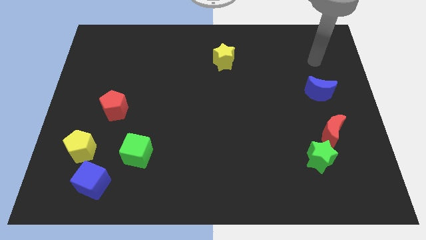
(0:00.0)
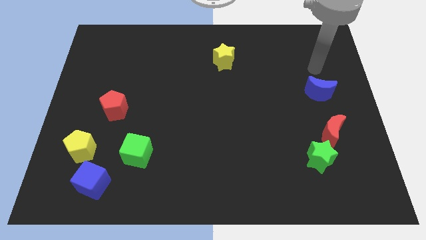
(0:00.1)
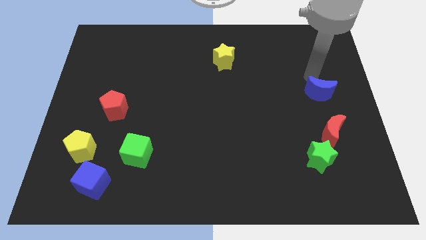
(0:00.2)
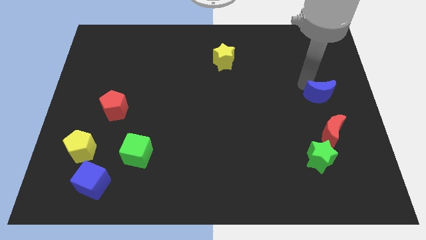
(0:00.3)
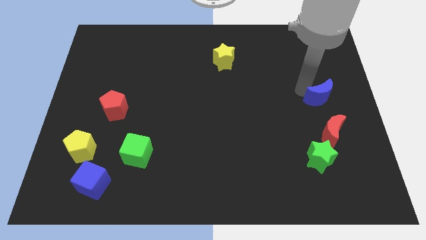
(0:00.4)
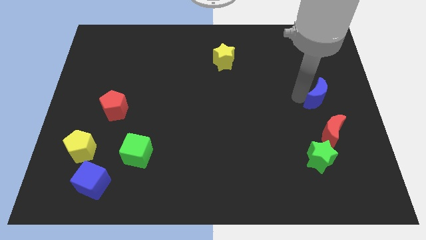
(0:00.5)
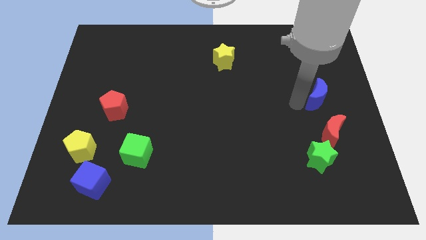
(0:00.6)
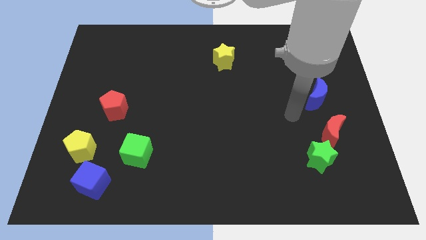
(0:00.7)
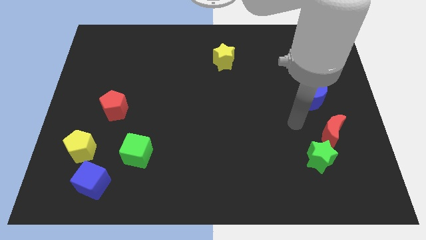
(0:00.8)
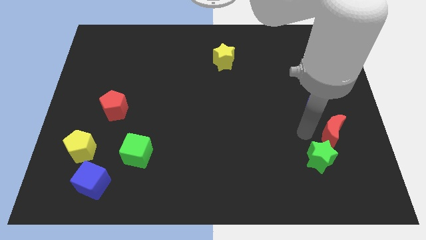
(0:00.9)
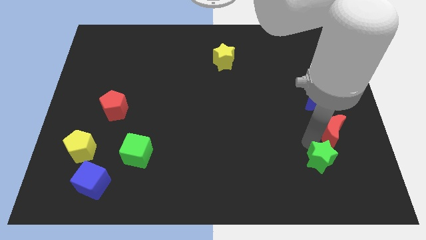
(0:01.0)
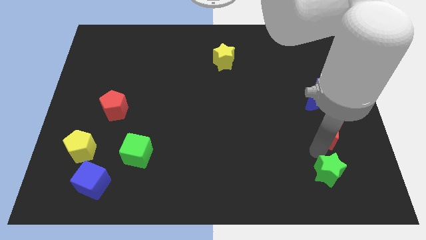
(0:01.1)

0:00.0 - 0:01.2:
move the red moon away from the green star

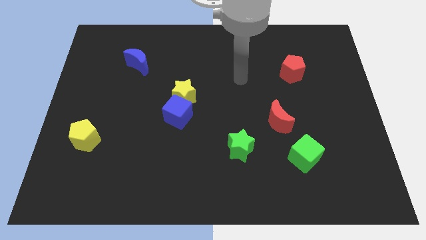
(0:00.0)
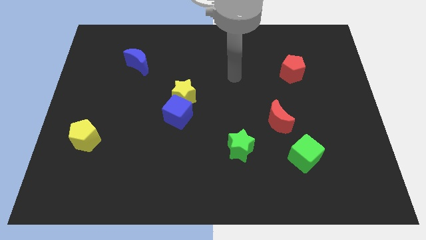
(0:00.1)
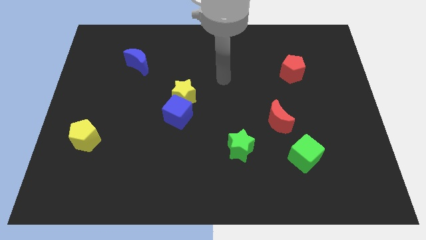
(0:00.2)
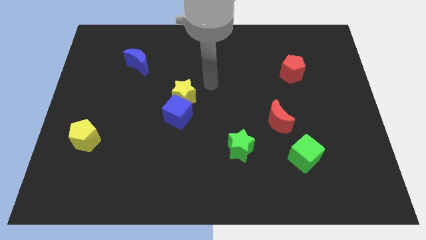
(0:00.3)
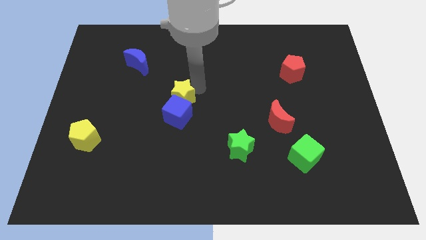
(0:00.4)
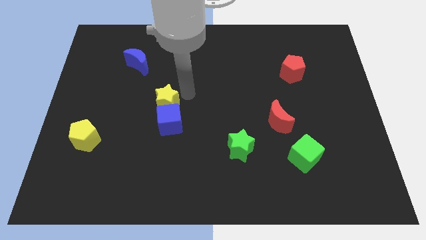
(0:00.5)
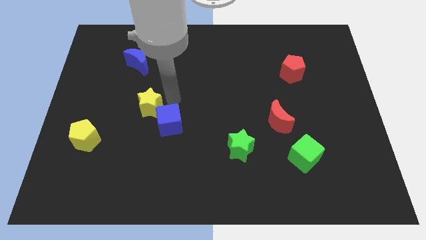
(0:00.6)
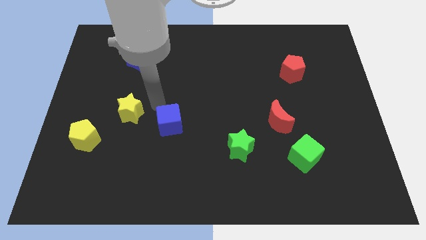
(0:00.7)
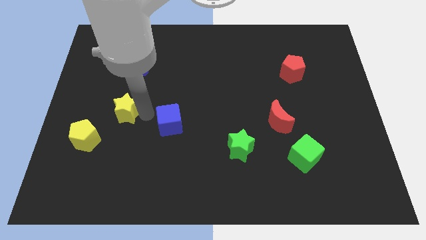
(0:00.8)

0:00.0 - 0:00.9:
move the blue cube away from the yellow star

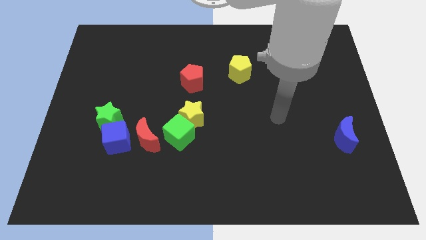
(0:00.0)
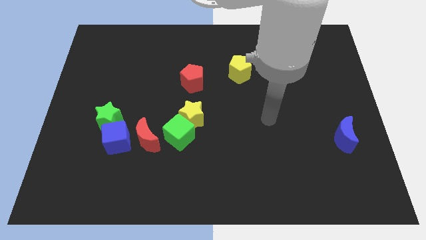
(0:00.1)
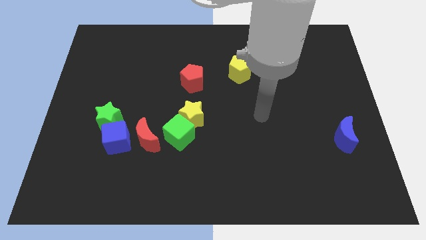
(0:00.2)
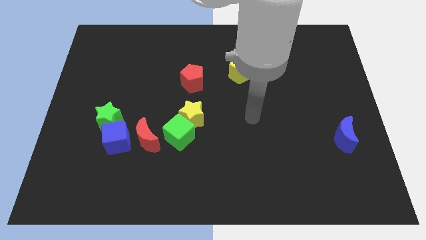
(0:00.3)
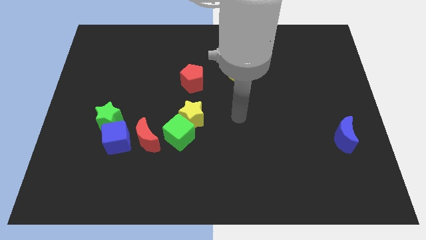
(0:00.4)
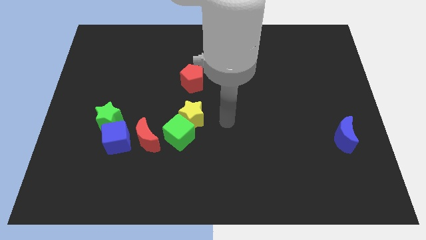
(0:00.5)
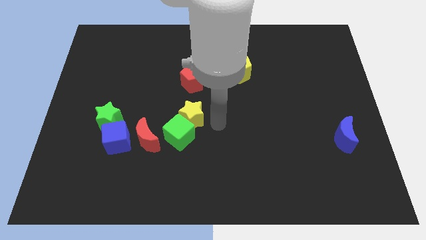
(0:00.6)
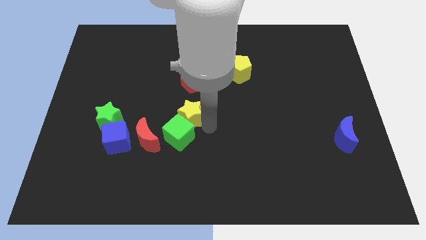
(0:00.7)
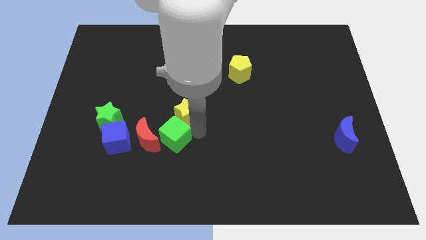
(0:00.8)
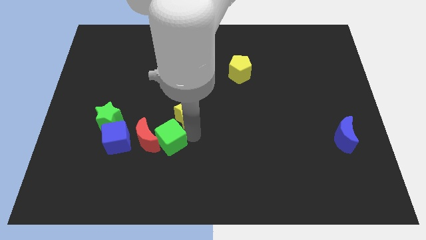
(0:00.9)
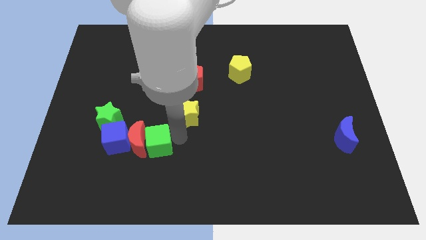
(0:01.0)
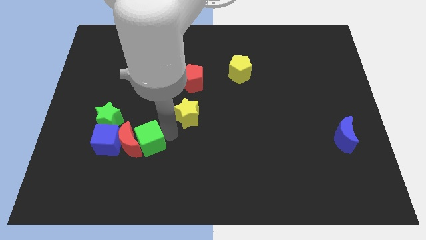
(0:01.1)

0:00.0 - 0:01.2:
pull the yellow star apart from the green cube

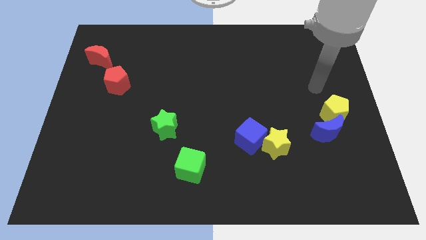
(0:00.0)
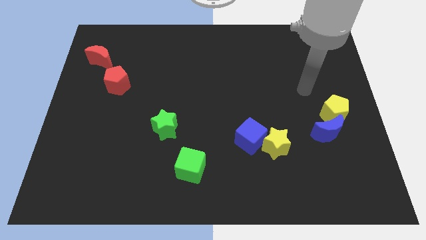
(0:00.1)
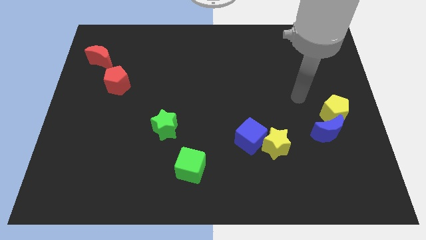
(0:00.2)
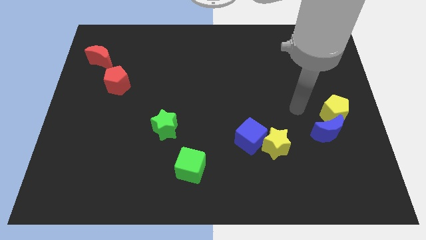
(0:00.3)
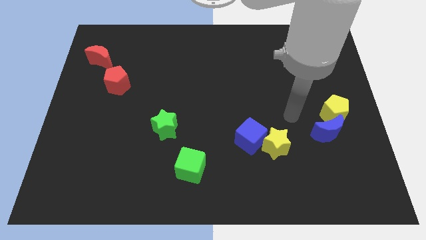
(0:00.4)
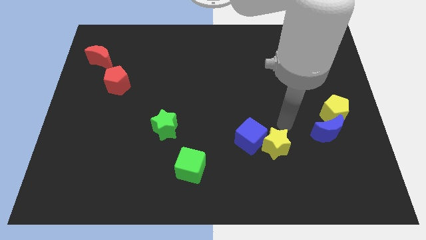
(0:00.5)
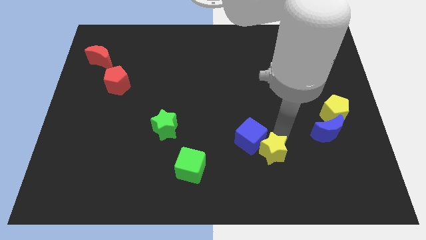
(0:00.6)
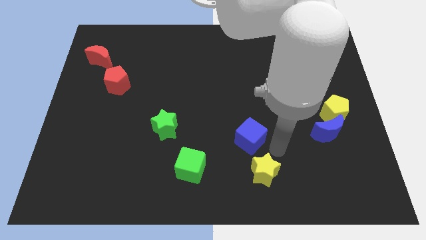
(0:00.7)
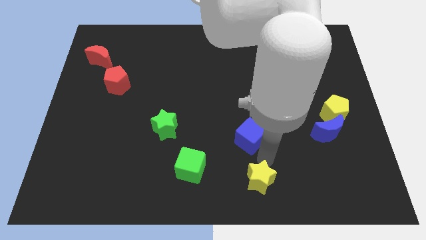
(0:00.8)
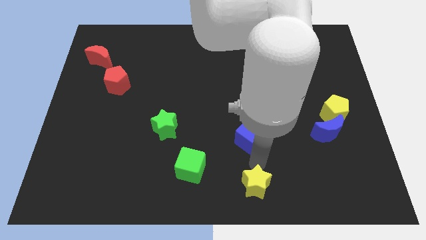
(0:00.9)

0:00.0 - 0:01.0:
separate the blue cube from the yellow star

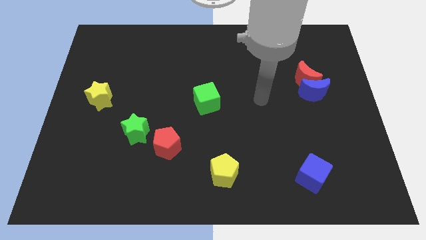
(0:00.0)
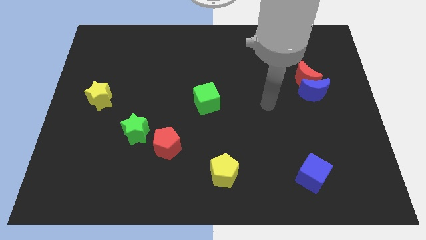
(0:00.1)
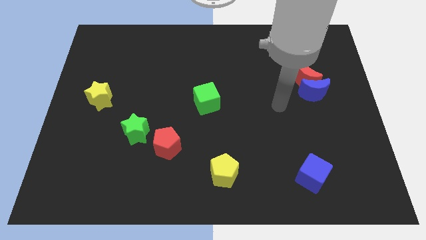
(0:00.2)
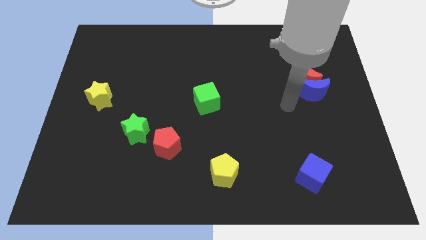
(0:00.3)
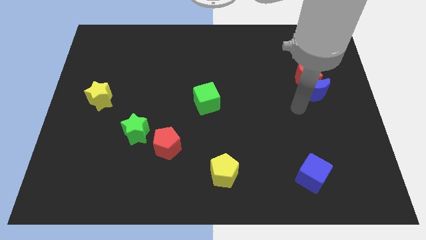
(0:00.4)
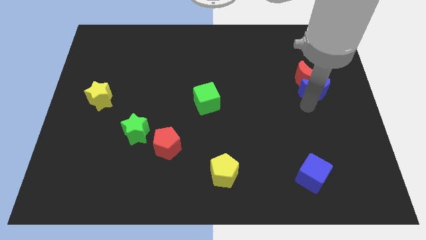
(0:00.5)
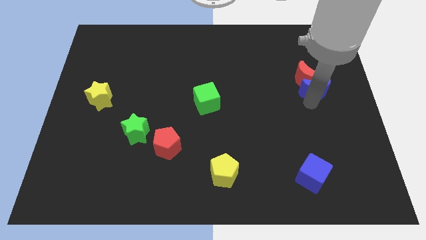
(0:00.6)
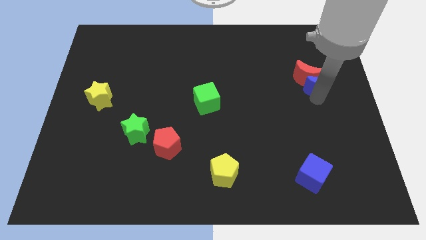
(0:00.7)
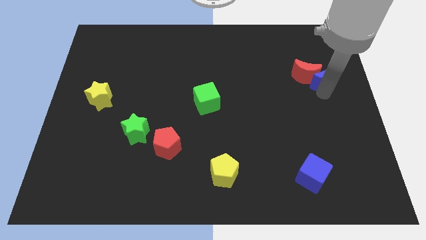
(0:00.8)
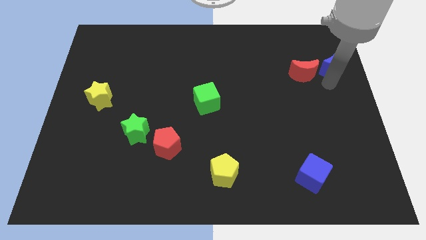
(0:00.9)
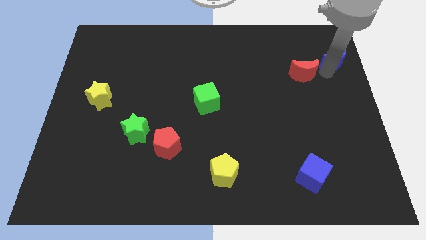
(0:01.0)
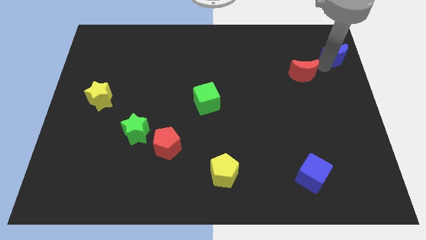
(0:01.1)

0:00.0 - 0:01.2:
pull the red moon apart from the blue moon

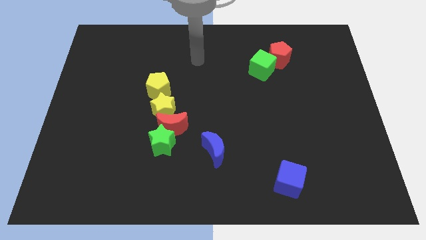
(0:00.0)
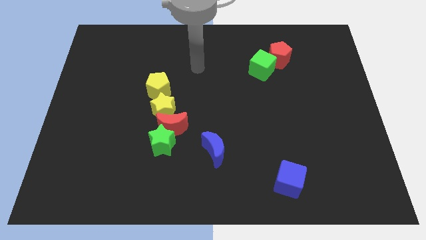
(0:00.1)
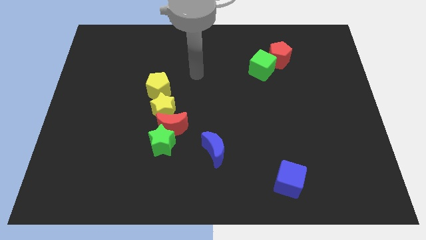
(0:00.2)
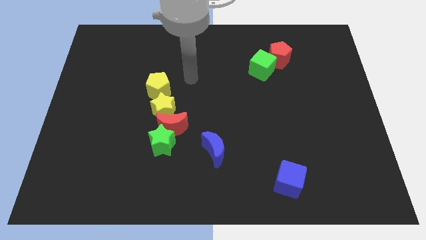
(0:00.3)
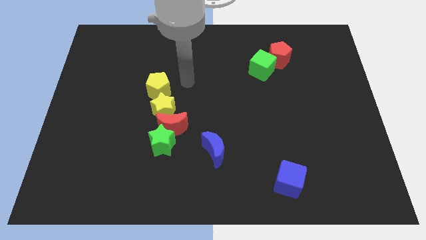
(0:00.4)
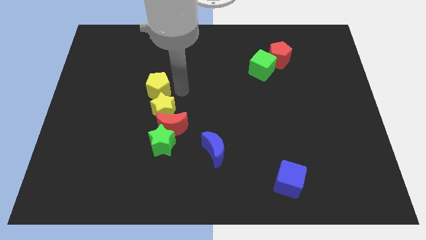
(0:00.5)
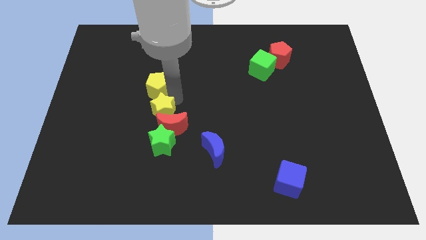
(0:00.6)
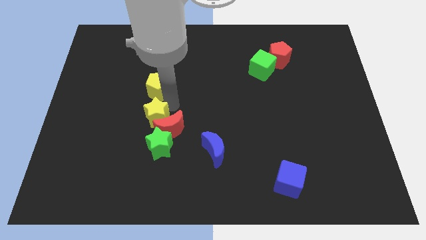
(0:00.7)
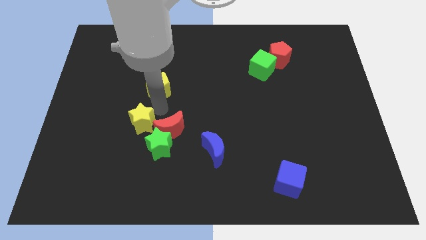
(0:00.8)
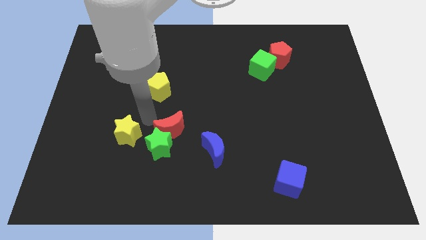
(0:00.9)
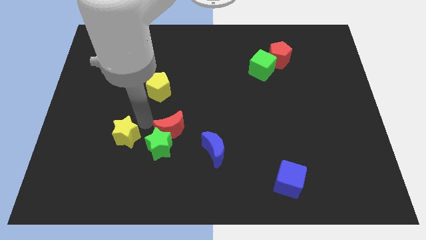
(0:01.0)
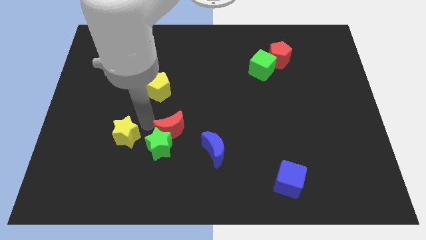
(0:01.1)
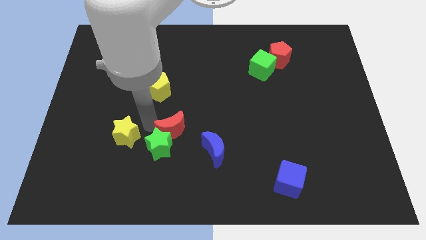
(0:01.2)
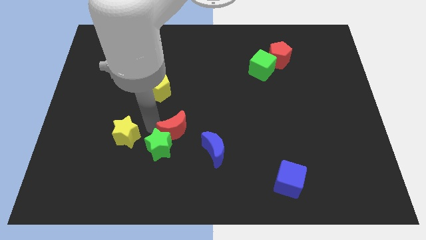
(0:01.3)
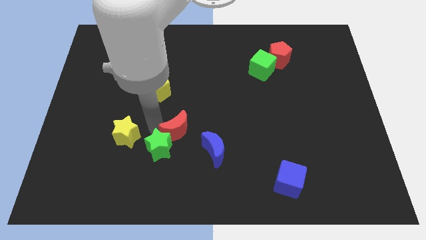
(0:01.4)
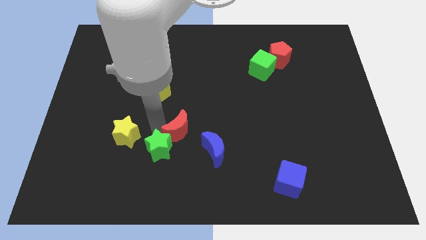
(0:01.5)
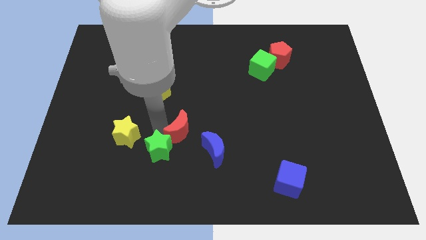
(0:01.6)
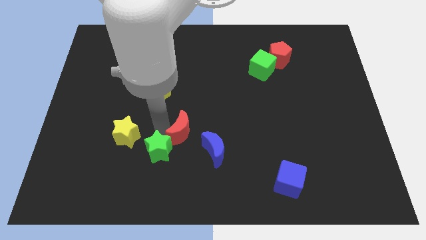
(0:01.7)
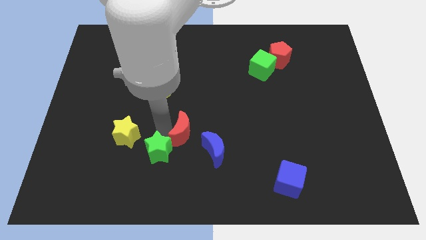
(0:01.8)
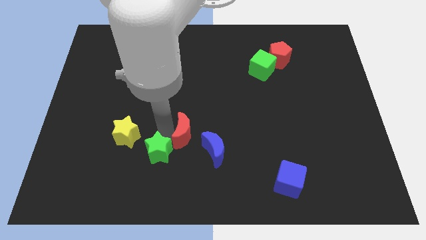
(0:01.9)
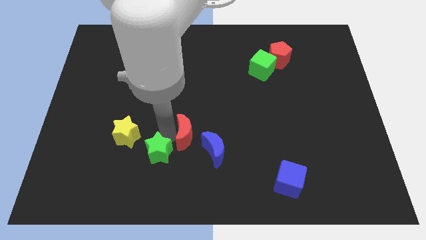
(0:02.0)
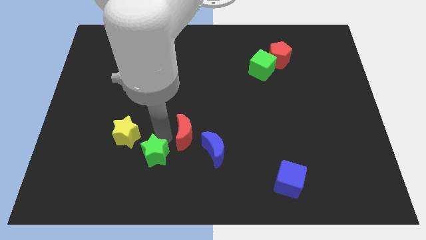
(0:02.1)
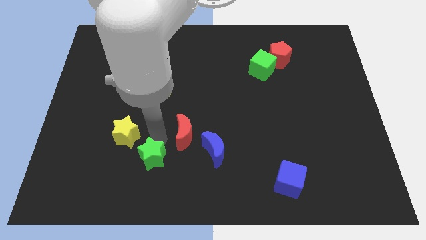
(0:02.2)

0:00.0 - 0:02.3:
move the red moon away from the green star and yellow star

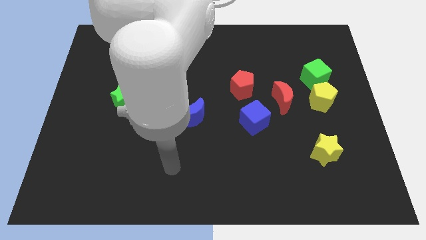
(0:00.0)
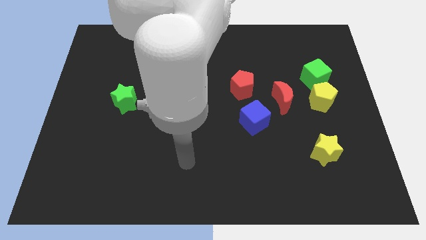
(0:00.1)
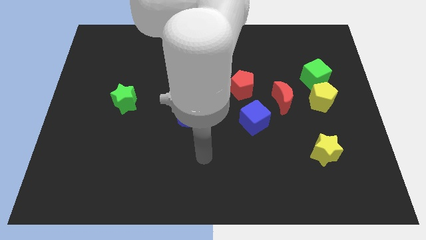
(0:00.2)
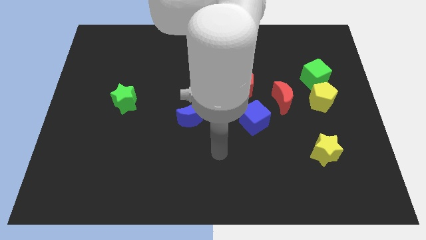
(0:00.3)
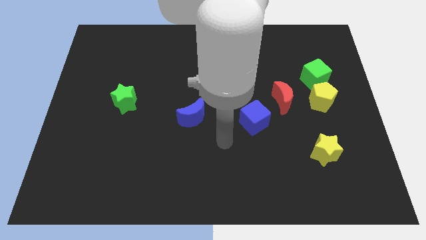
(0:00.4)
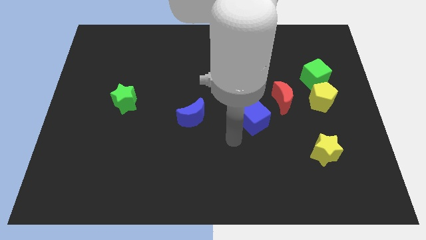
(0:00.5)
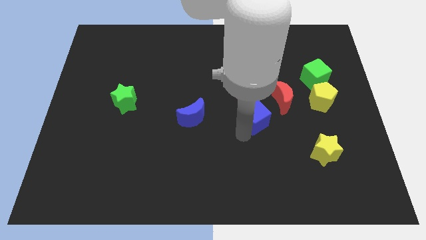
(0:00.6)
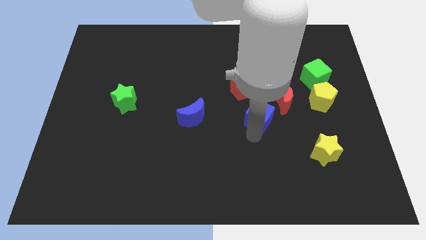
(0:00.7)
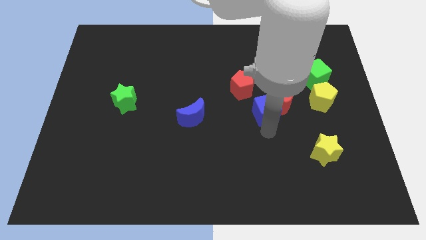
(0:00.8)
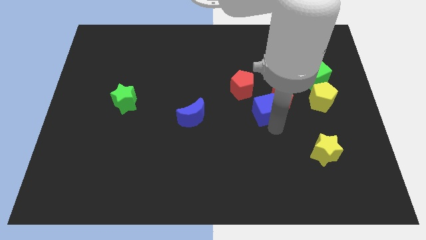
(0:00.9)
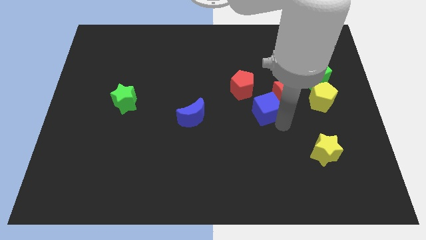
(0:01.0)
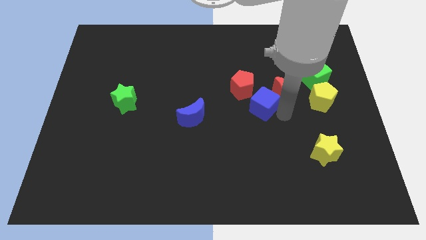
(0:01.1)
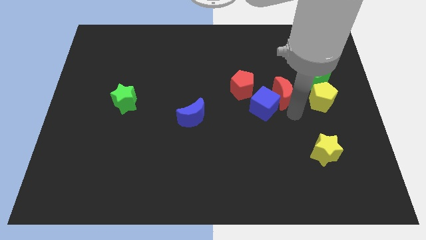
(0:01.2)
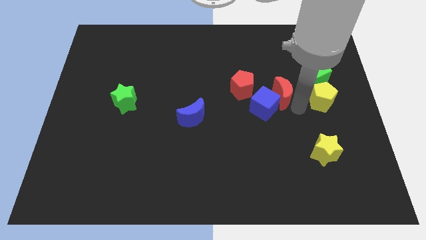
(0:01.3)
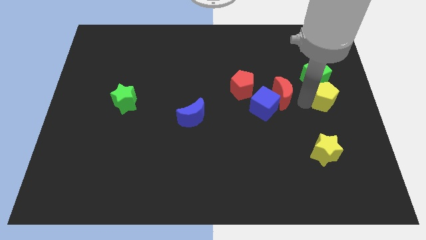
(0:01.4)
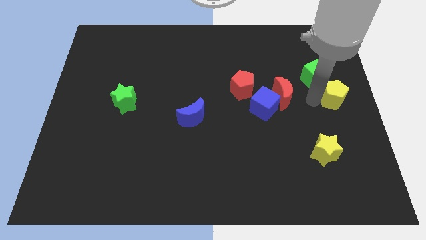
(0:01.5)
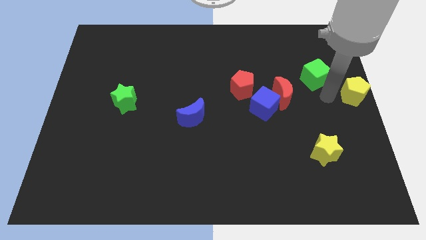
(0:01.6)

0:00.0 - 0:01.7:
move the green cube away from the yellow pentagon
